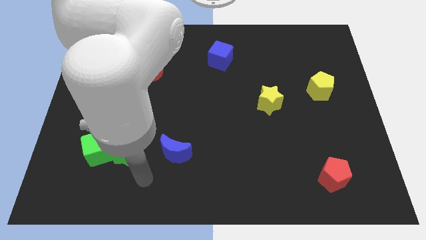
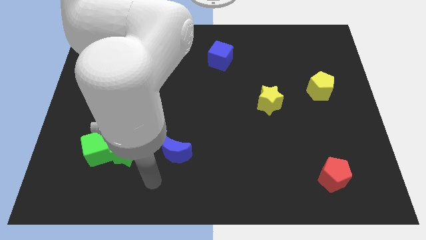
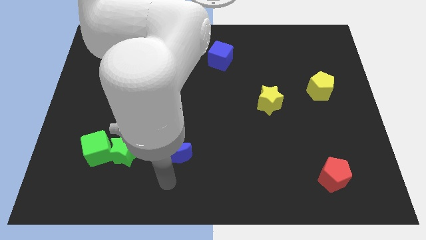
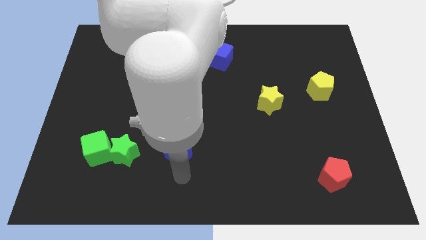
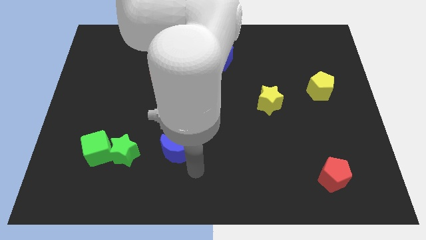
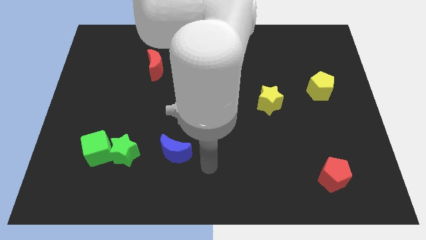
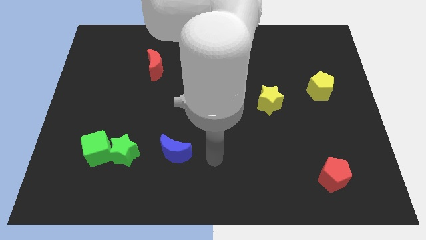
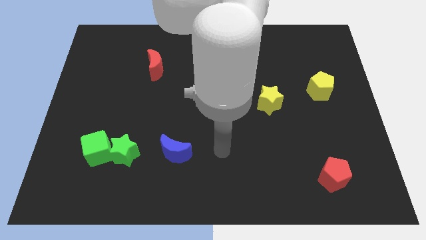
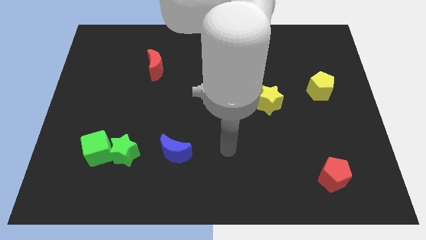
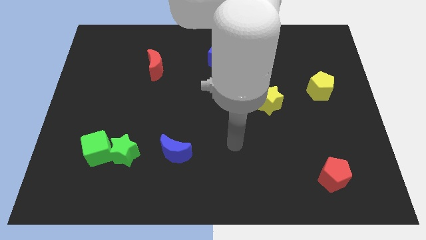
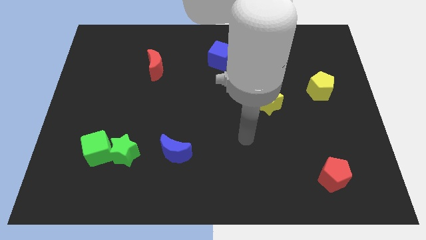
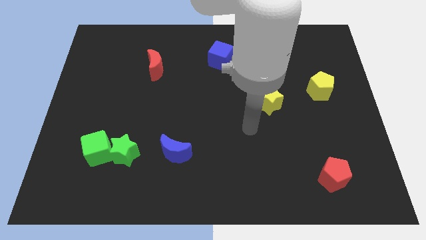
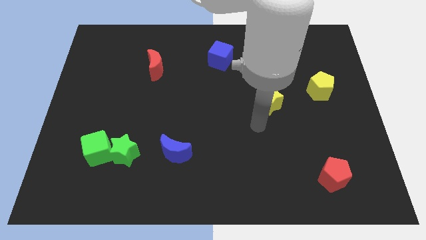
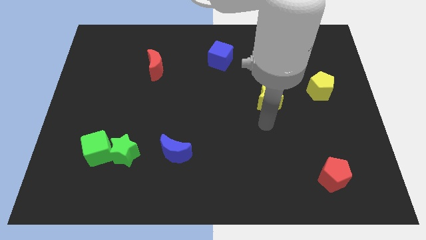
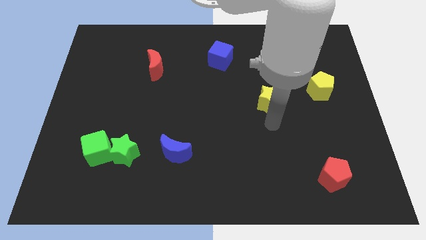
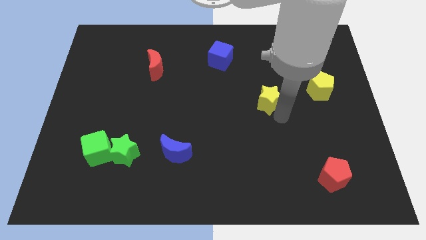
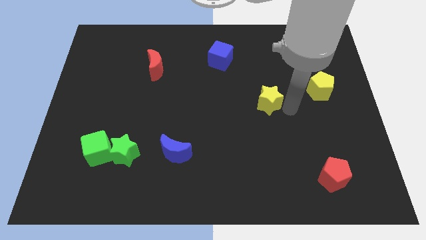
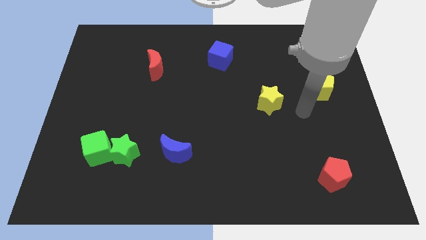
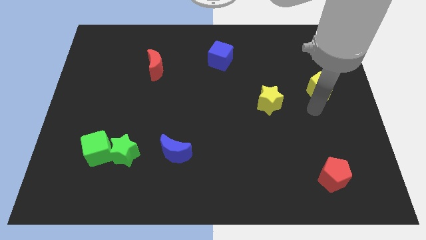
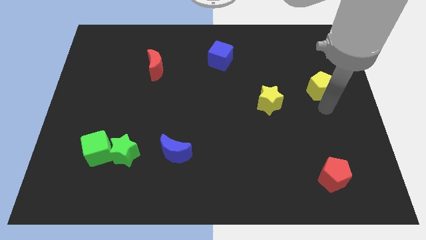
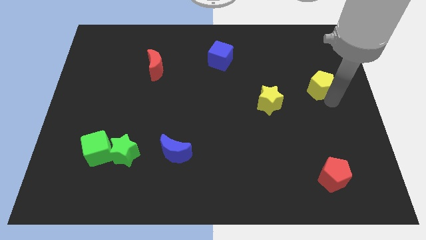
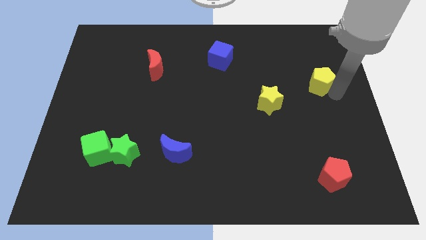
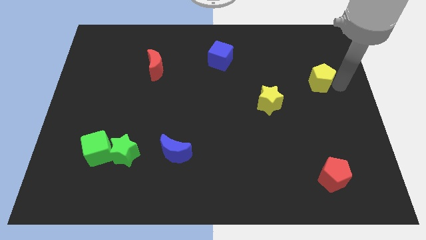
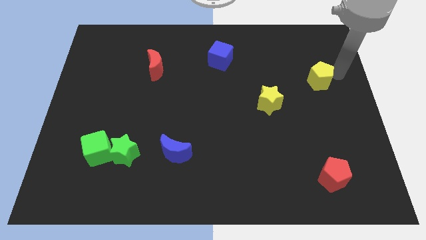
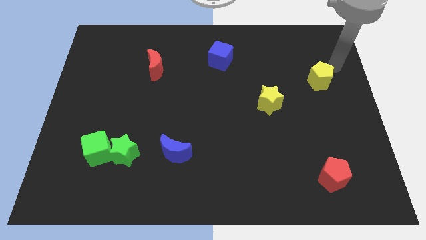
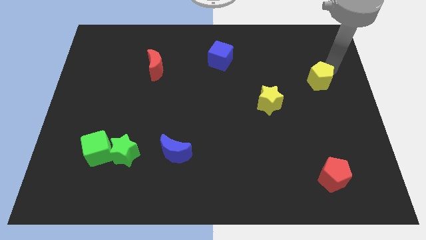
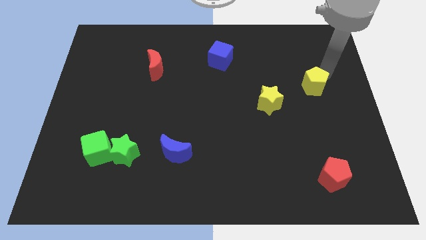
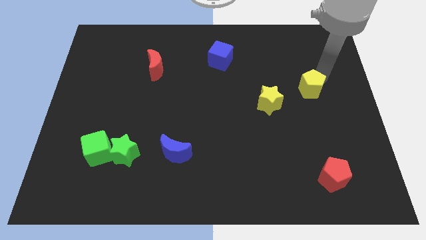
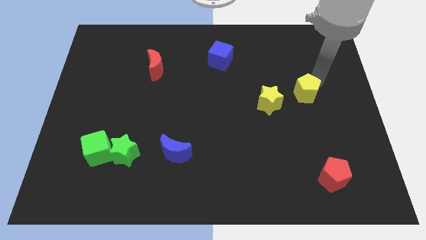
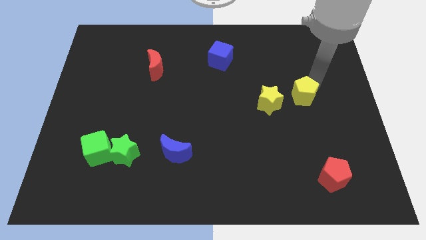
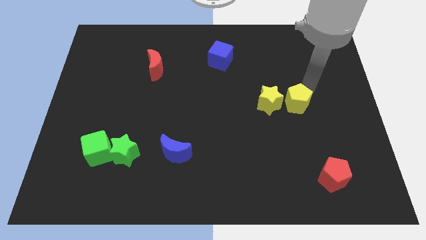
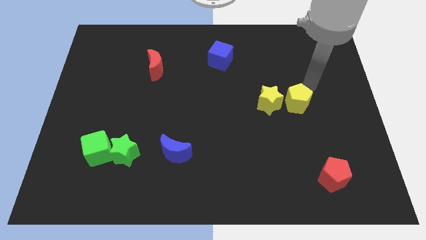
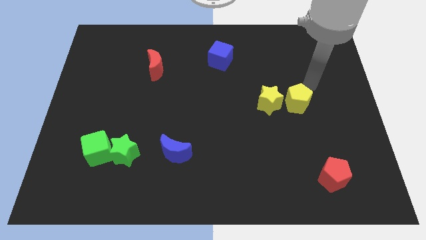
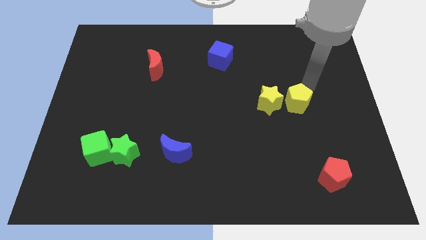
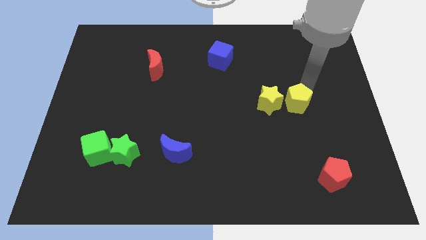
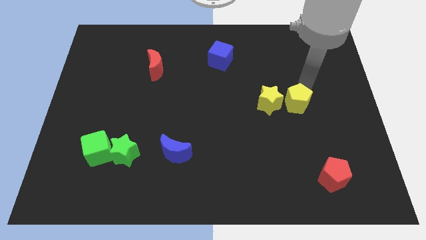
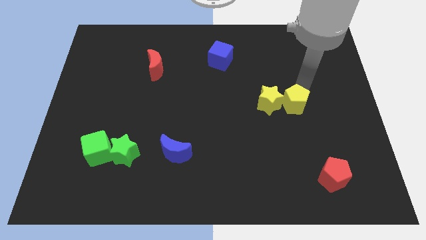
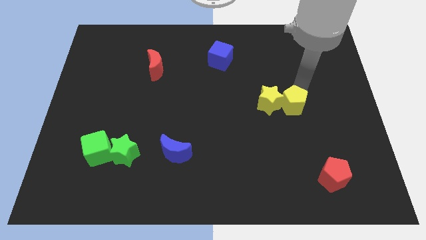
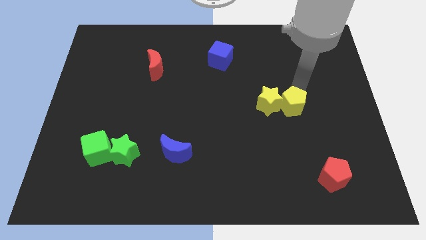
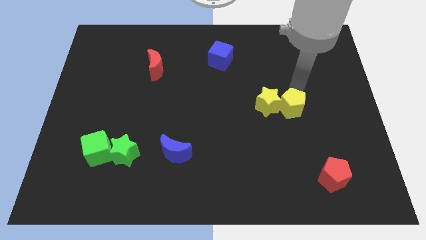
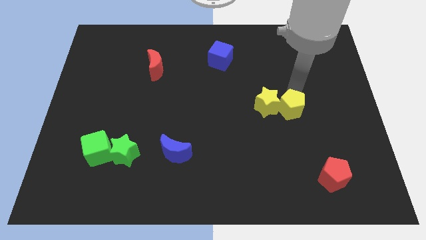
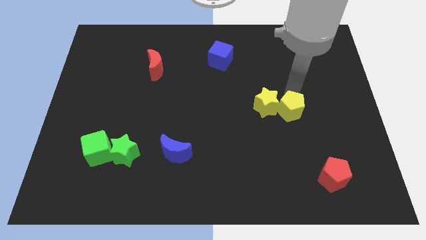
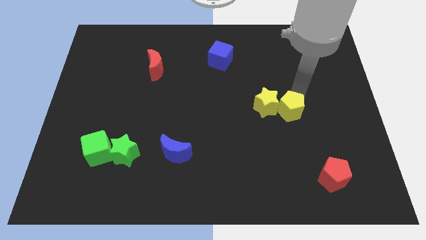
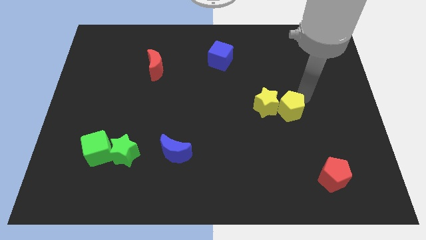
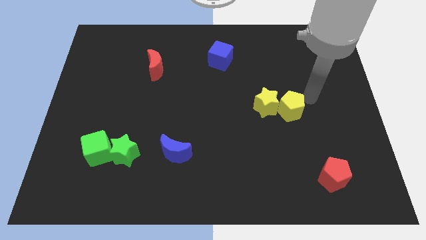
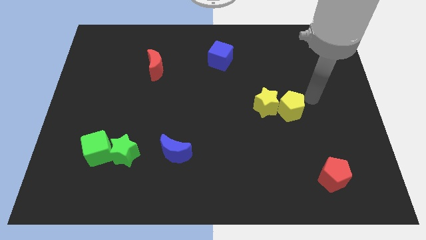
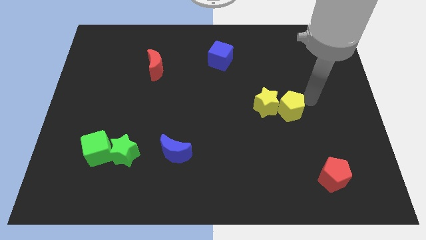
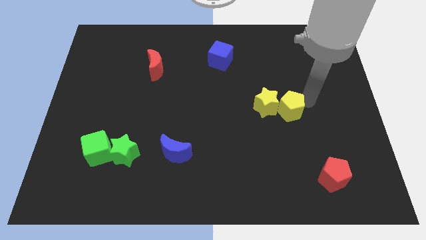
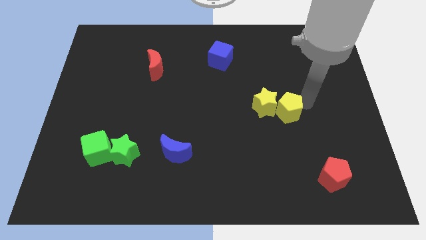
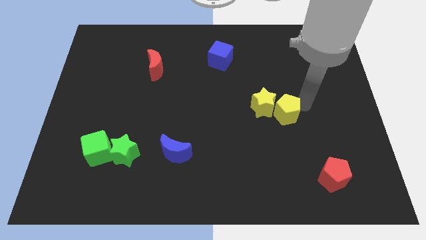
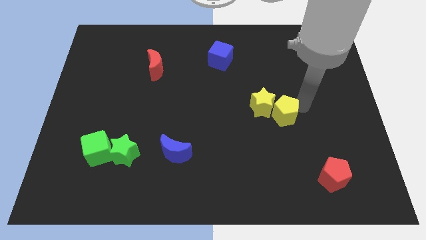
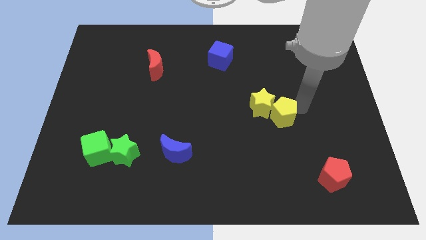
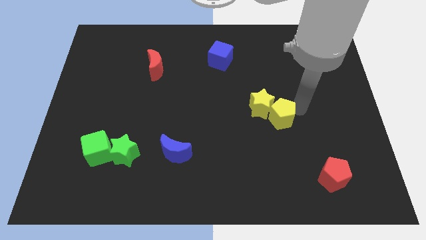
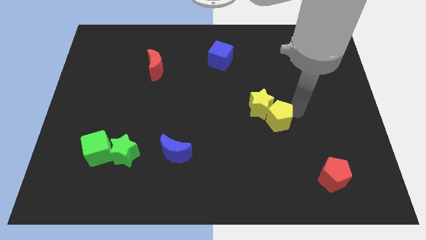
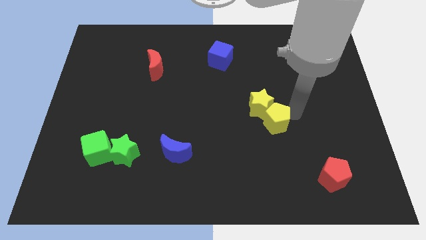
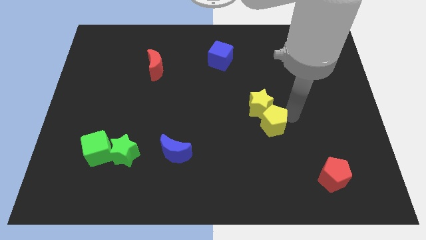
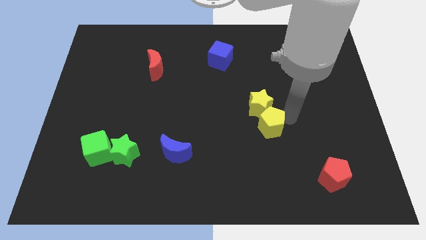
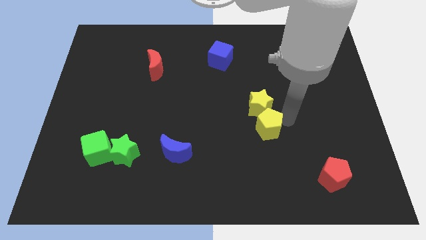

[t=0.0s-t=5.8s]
put the yellow pentagon to the bottom left of the yellow star

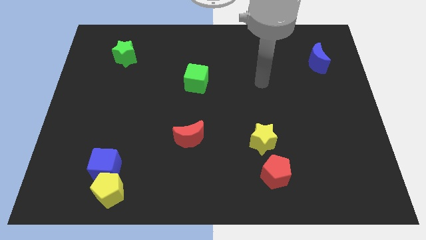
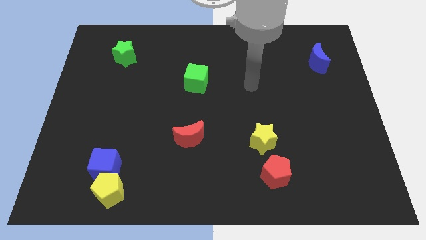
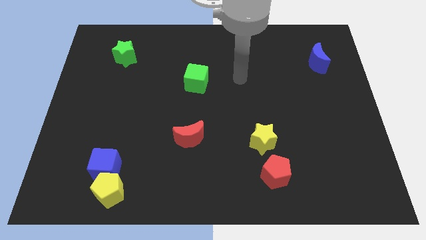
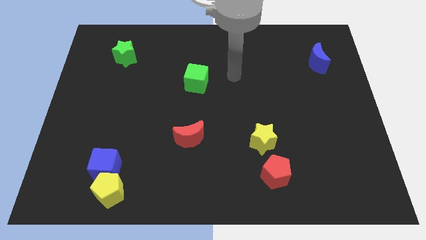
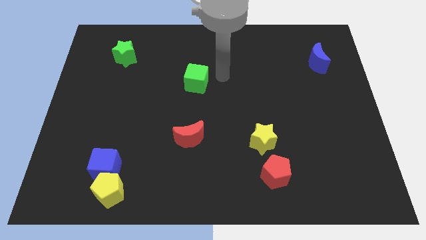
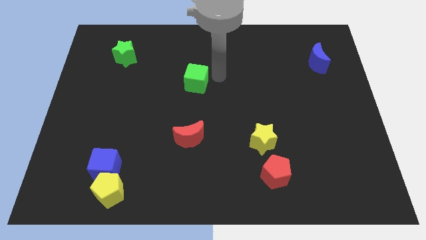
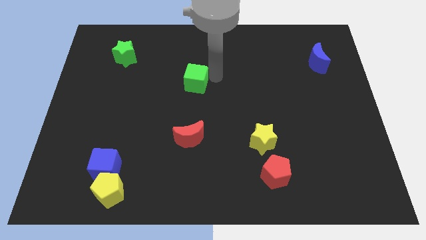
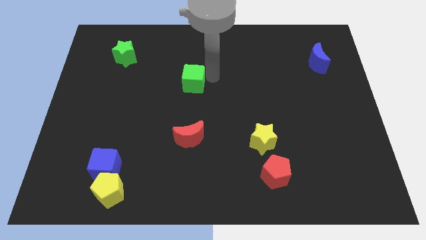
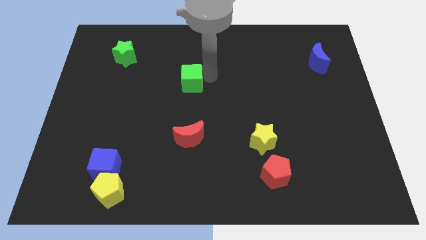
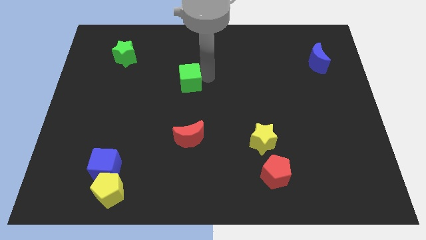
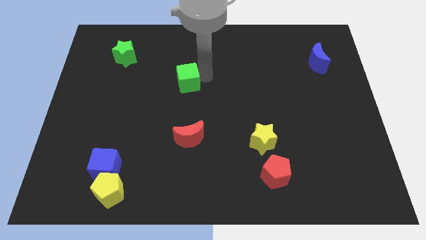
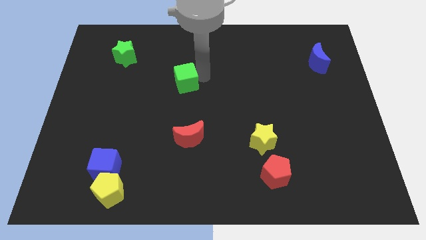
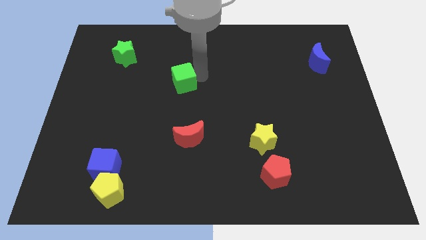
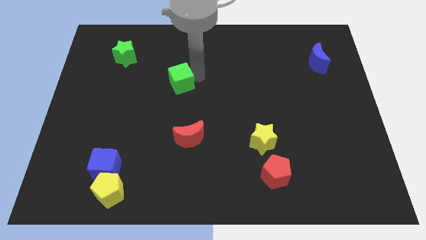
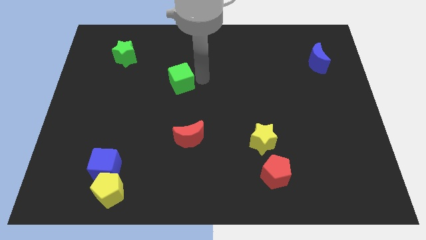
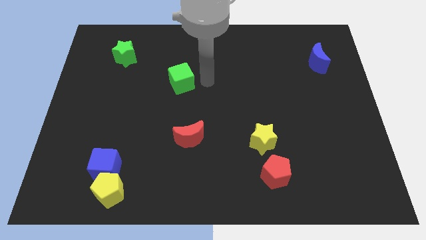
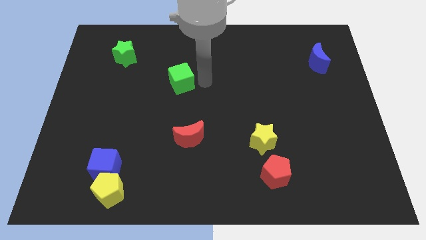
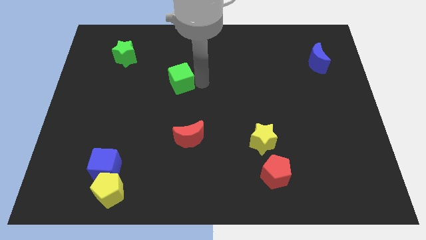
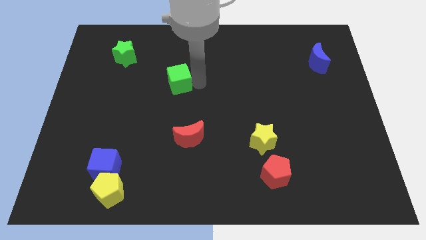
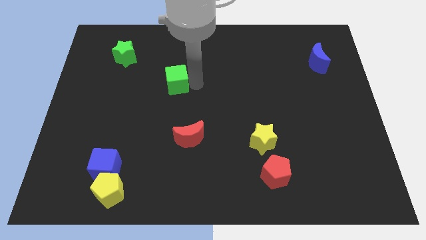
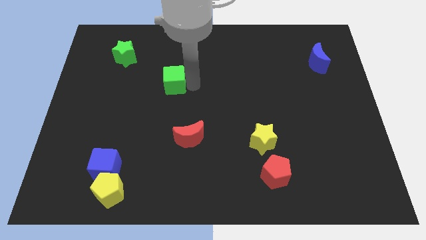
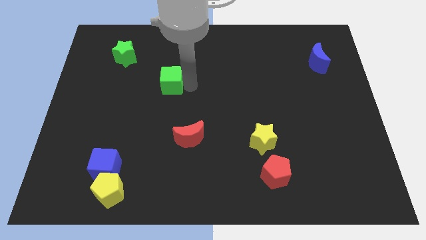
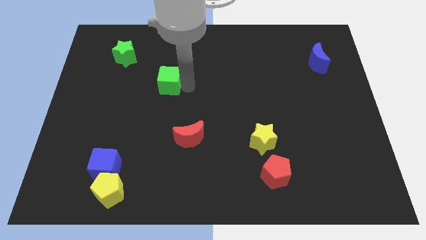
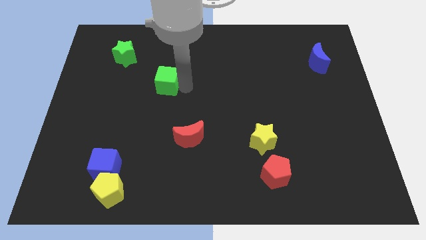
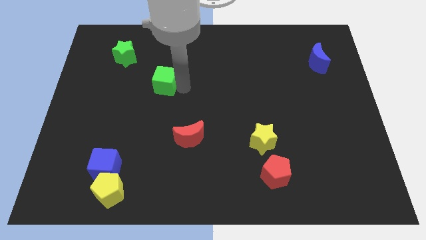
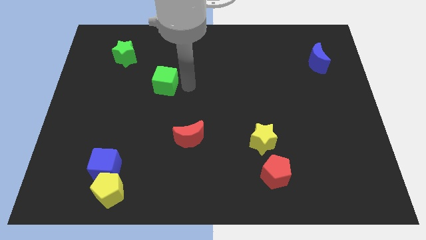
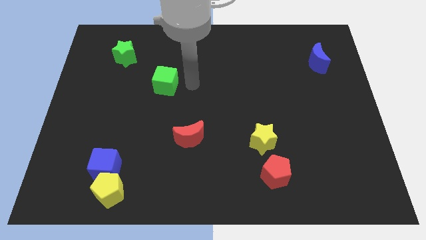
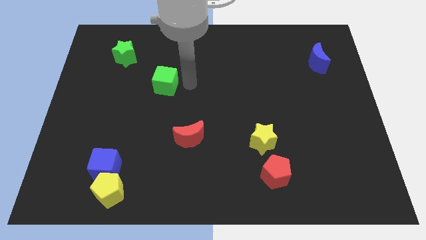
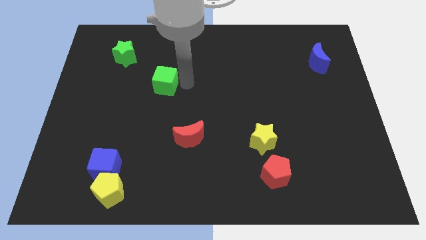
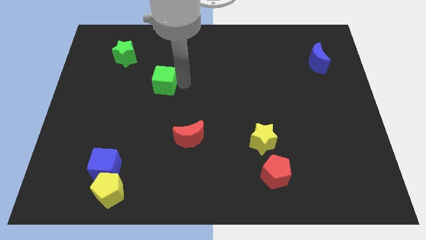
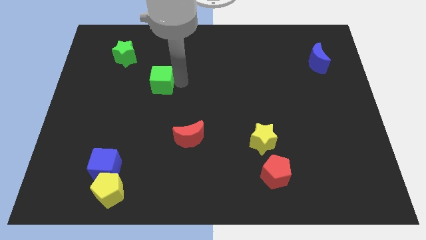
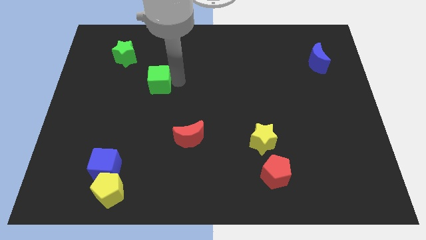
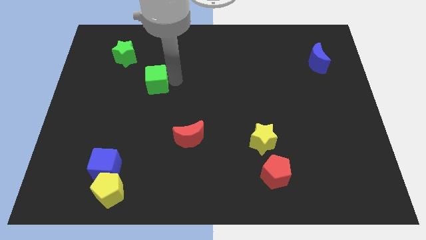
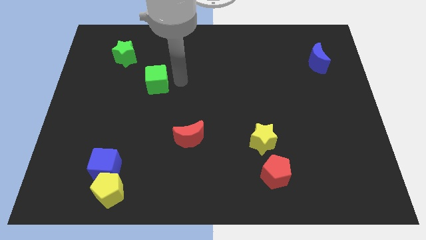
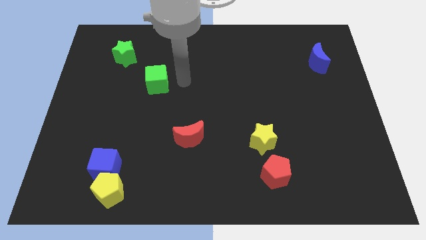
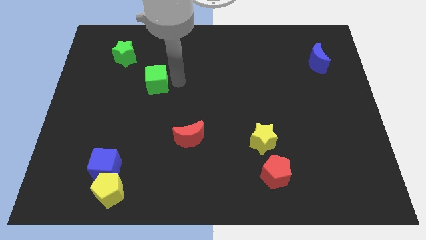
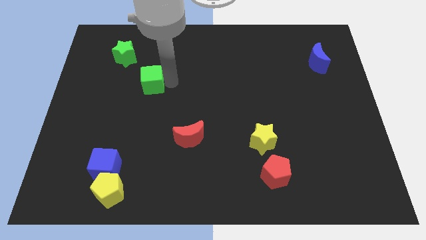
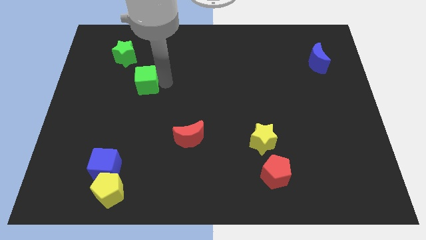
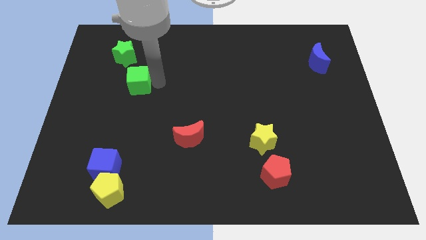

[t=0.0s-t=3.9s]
put the green cube below the green star
